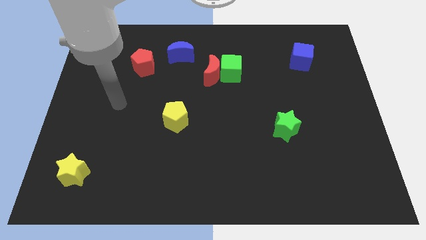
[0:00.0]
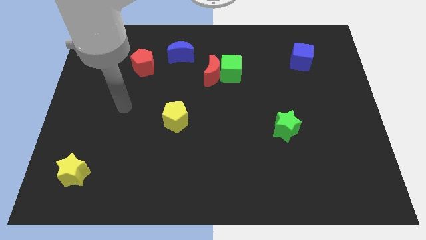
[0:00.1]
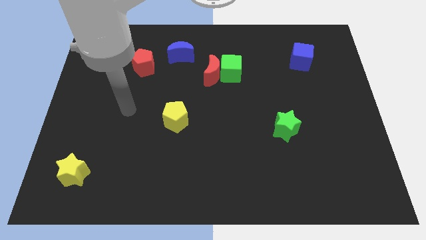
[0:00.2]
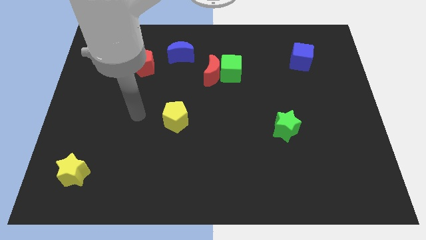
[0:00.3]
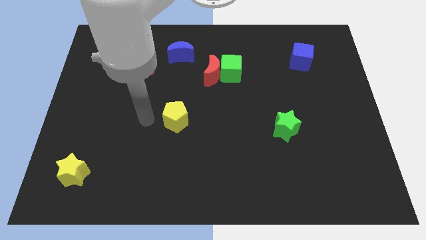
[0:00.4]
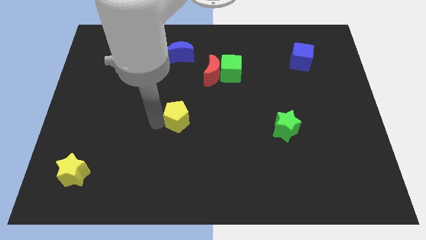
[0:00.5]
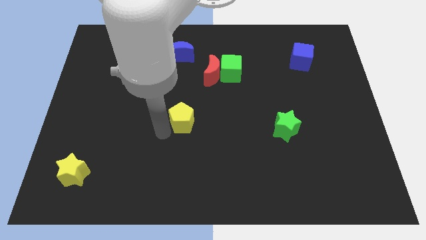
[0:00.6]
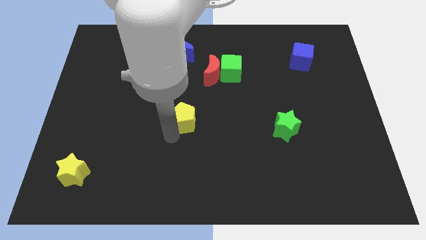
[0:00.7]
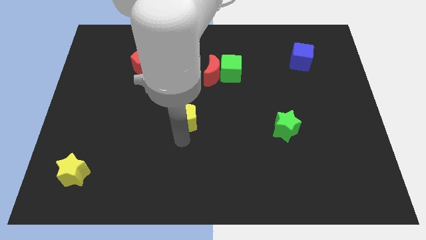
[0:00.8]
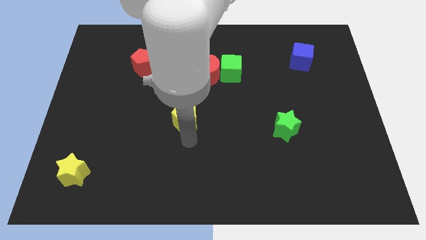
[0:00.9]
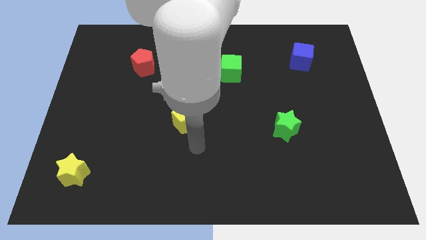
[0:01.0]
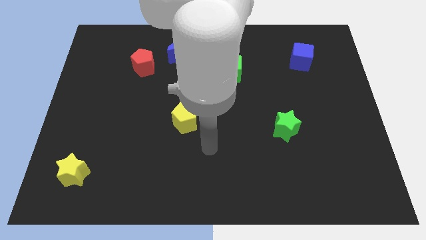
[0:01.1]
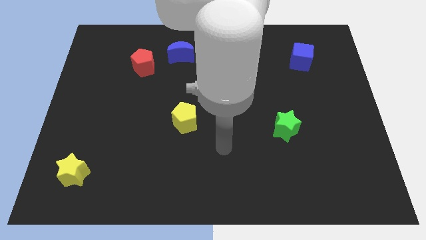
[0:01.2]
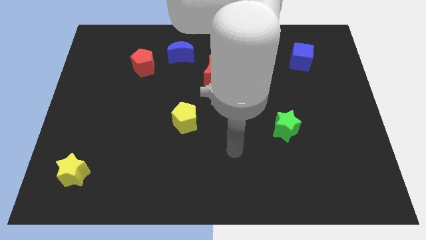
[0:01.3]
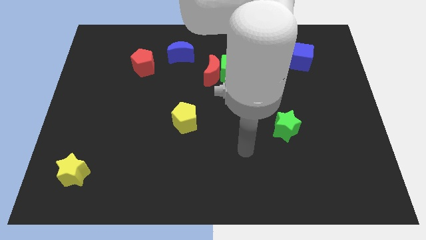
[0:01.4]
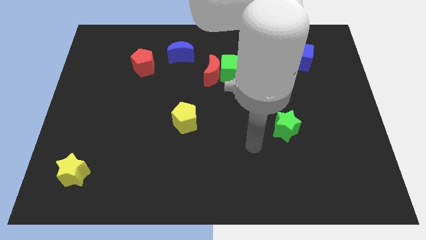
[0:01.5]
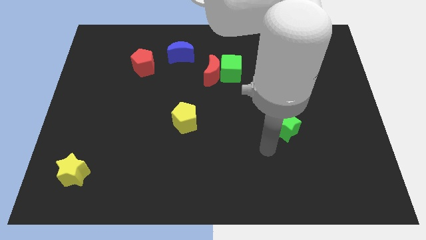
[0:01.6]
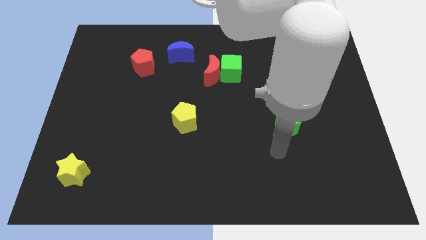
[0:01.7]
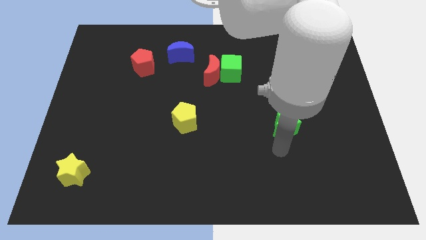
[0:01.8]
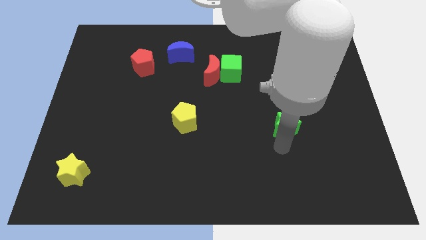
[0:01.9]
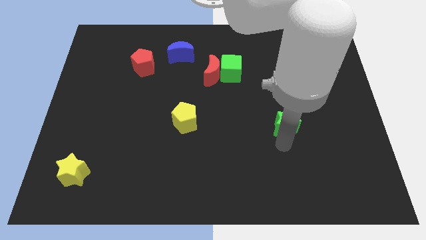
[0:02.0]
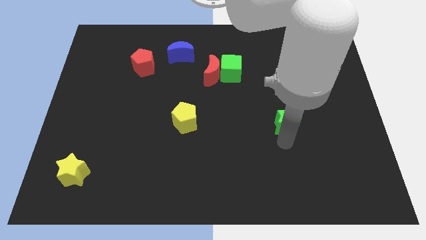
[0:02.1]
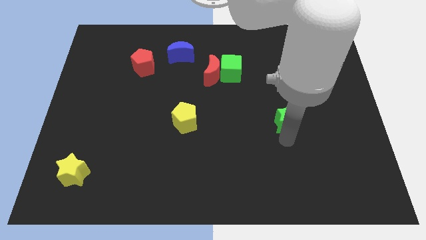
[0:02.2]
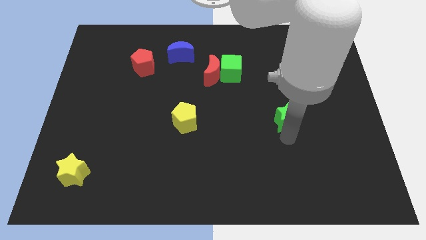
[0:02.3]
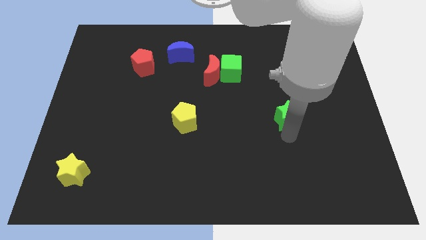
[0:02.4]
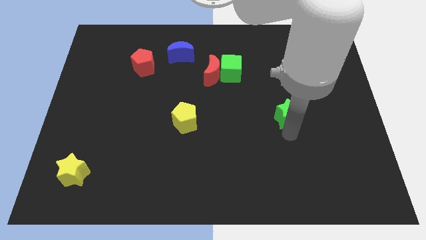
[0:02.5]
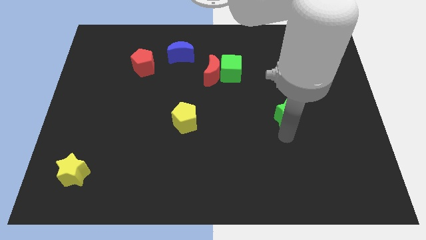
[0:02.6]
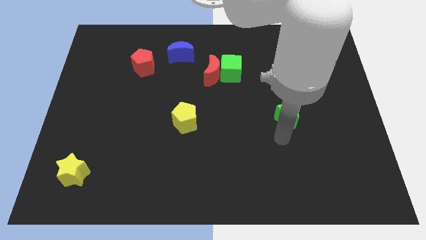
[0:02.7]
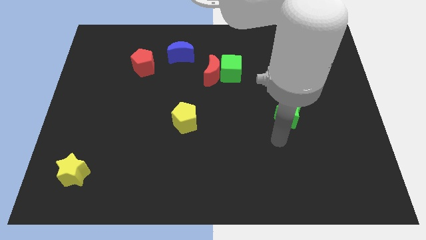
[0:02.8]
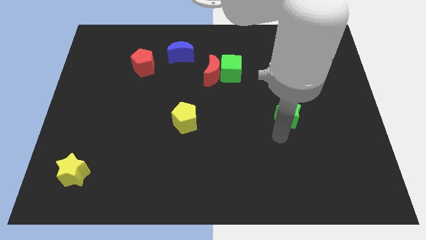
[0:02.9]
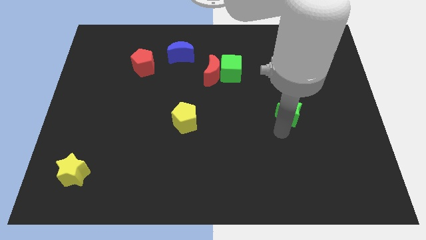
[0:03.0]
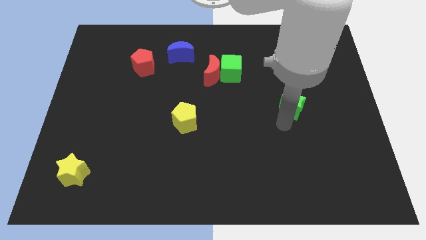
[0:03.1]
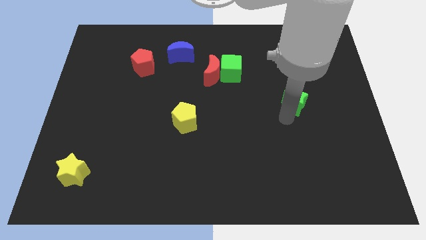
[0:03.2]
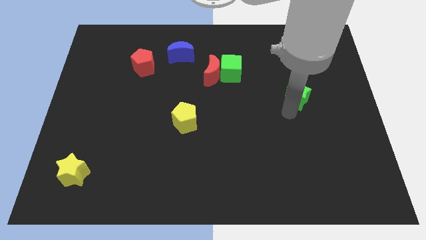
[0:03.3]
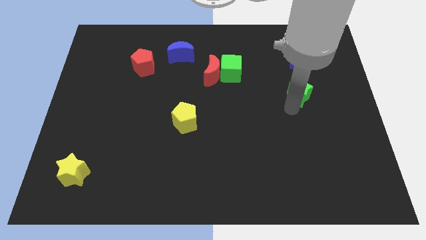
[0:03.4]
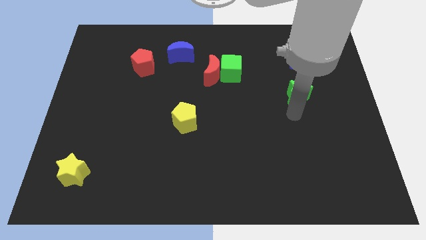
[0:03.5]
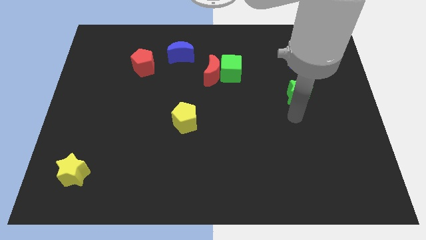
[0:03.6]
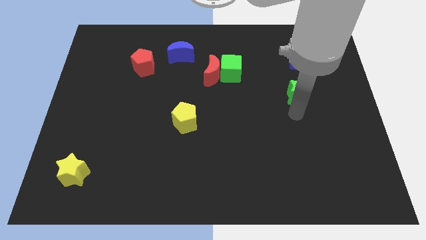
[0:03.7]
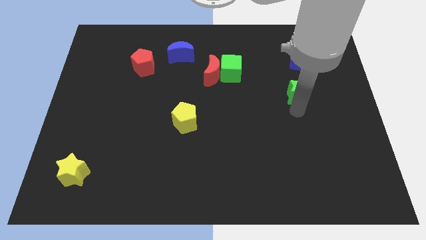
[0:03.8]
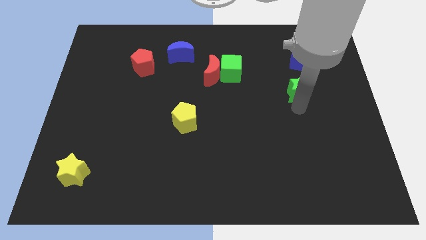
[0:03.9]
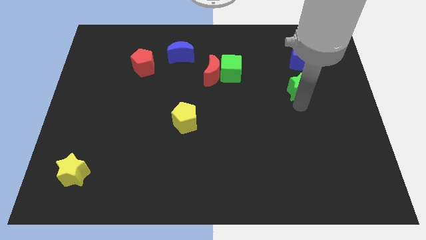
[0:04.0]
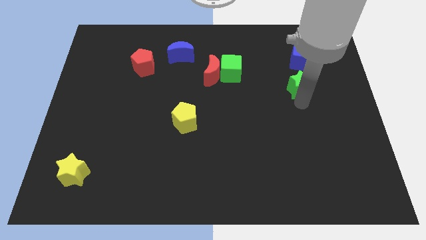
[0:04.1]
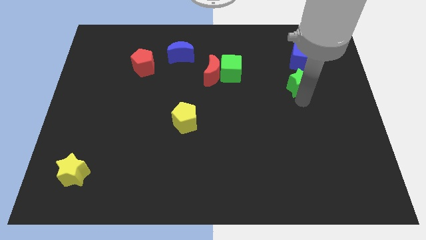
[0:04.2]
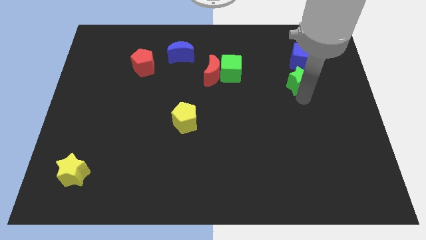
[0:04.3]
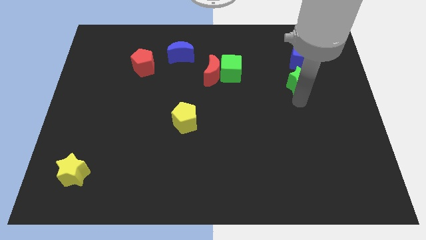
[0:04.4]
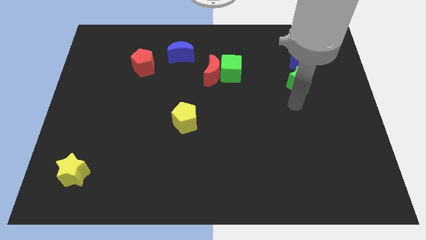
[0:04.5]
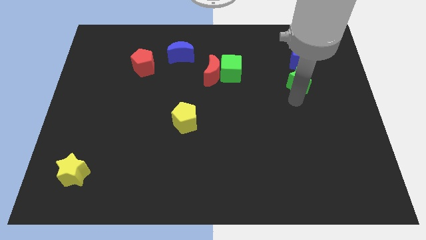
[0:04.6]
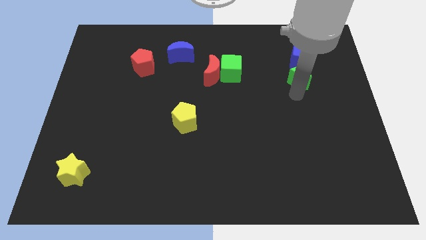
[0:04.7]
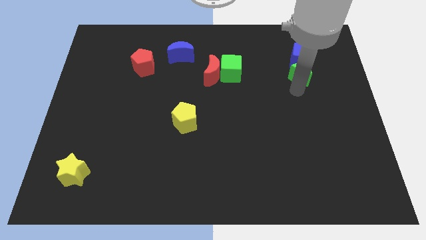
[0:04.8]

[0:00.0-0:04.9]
slide the green star towards the blue cube

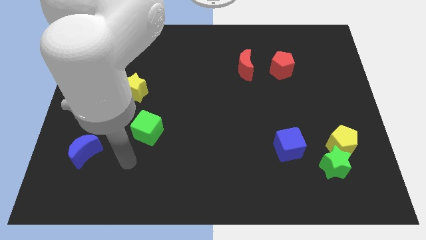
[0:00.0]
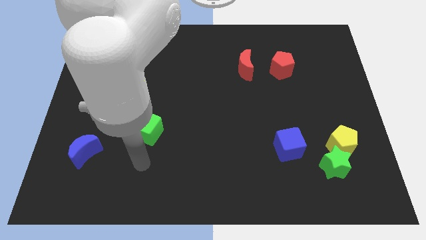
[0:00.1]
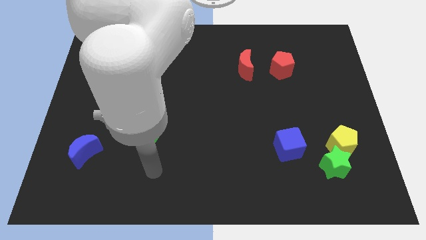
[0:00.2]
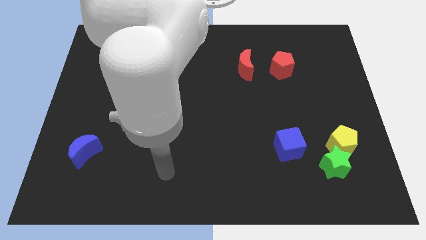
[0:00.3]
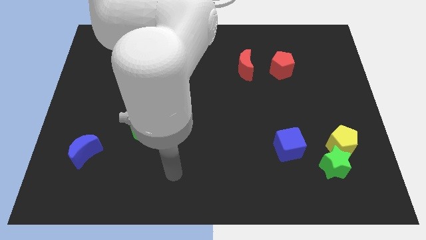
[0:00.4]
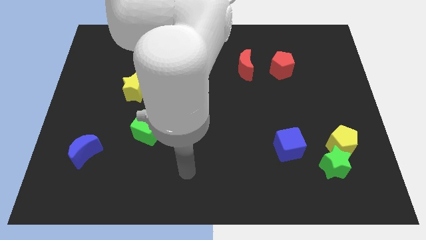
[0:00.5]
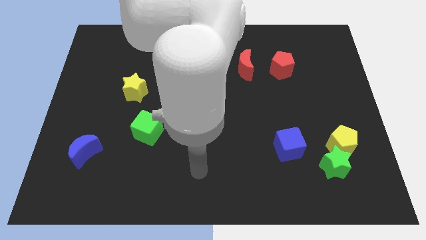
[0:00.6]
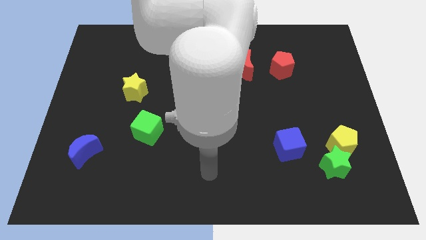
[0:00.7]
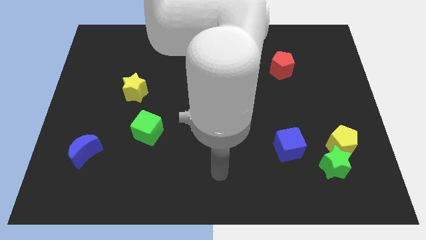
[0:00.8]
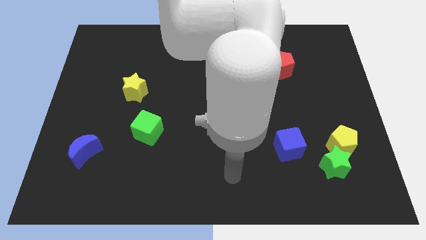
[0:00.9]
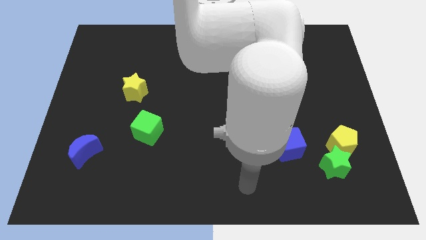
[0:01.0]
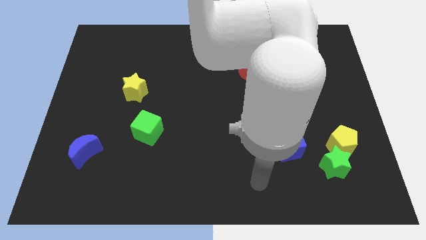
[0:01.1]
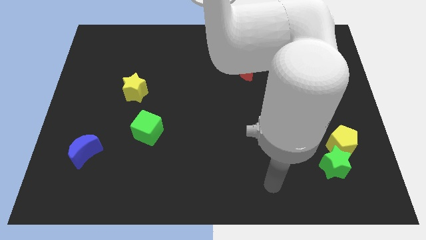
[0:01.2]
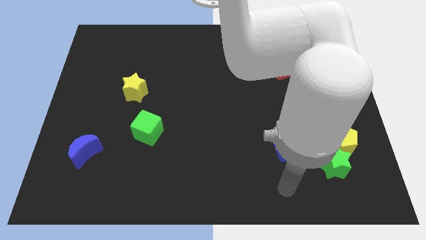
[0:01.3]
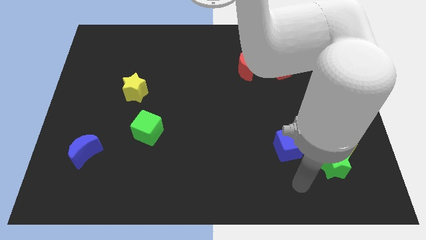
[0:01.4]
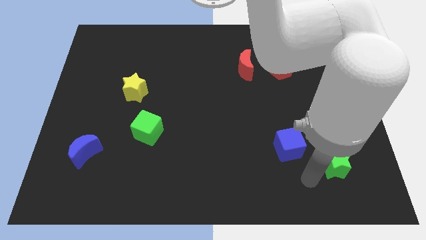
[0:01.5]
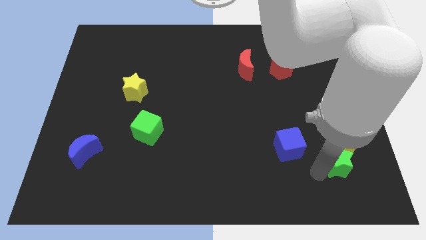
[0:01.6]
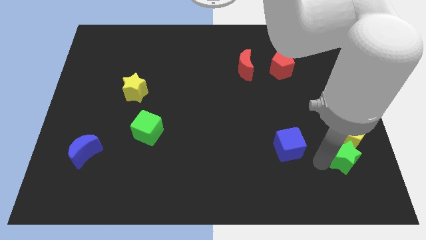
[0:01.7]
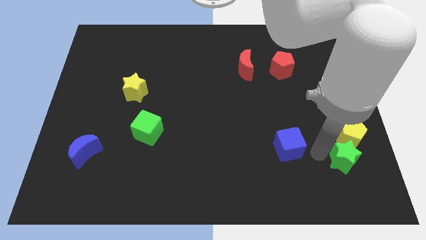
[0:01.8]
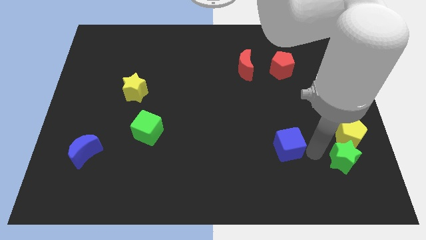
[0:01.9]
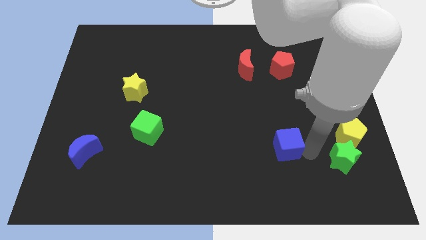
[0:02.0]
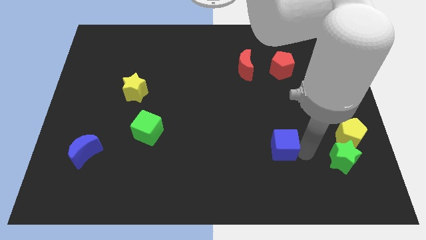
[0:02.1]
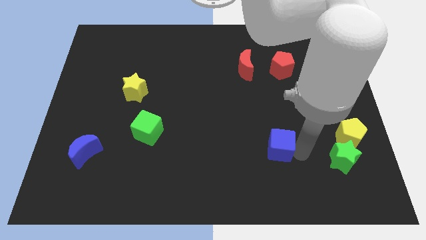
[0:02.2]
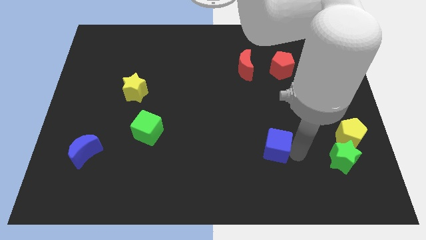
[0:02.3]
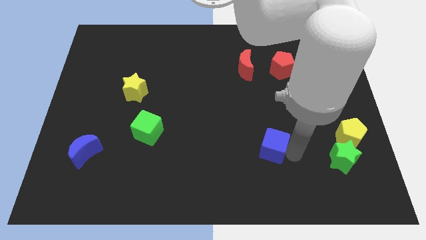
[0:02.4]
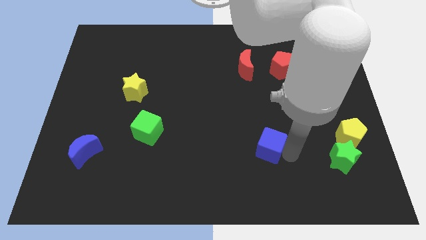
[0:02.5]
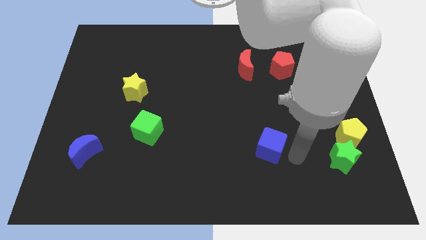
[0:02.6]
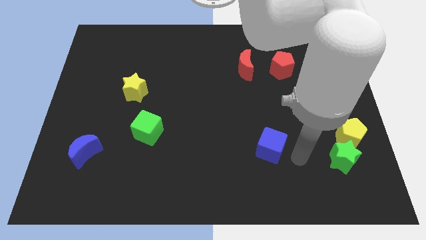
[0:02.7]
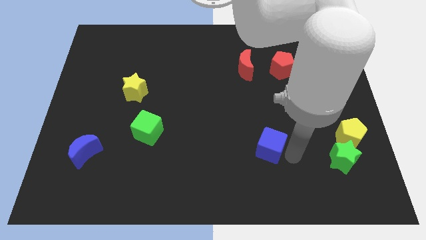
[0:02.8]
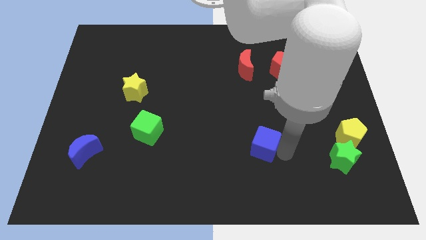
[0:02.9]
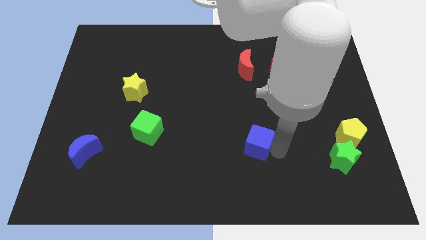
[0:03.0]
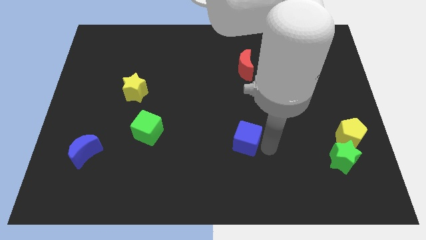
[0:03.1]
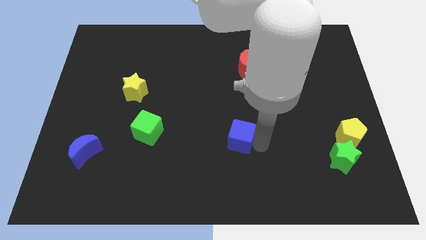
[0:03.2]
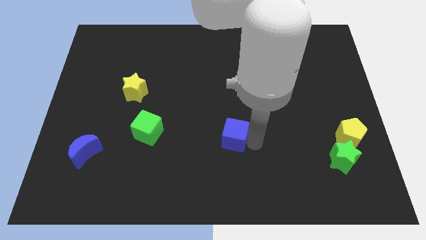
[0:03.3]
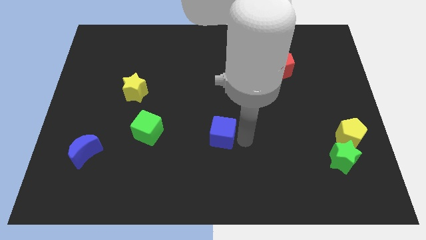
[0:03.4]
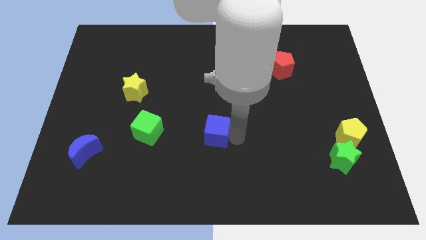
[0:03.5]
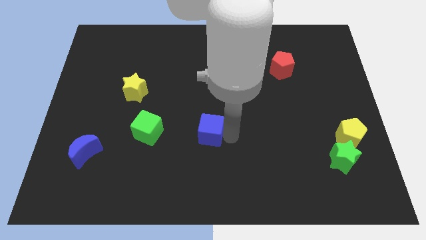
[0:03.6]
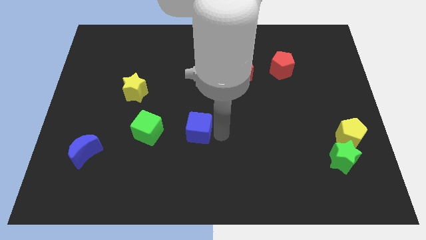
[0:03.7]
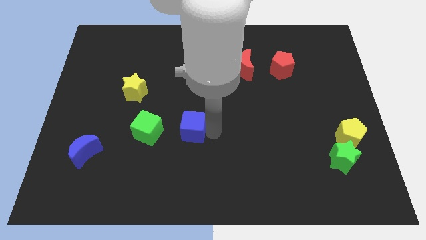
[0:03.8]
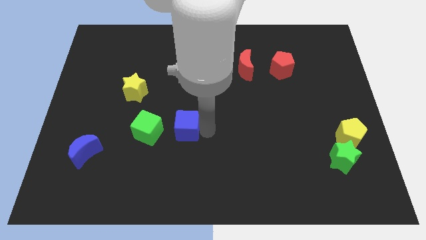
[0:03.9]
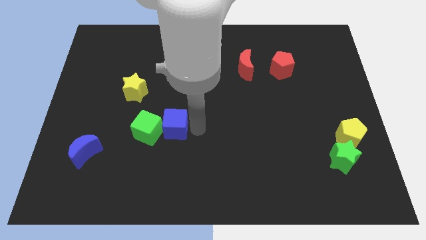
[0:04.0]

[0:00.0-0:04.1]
push the blue cube to the green cube
